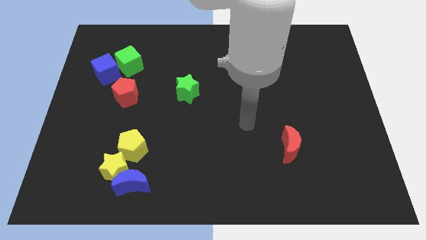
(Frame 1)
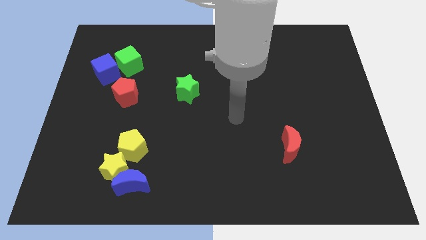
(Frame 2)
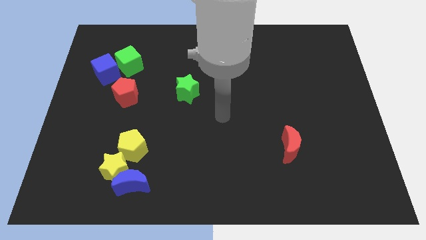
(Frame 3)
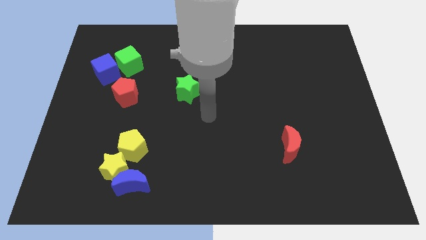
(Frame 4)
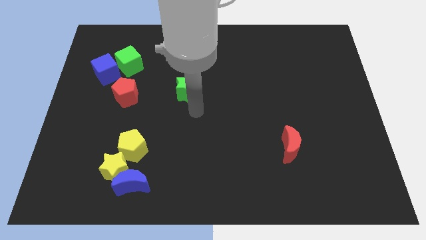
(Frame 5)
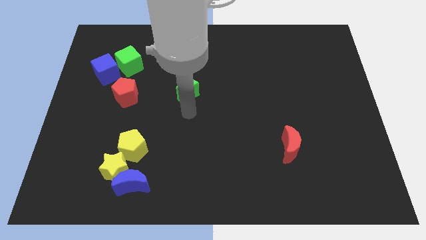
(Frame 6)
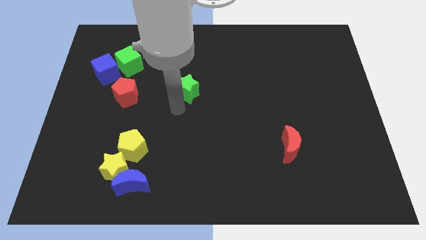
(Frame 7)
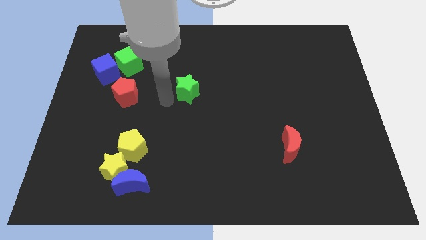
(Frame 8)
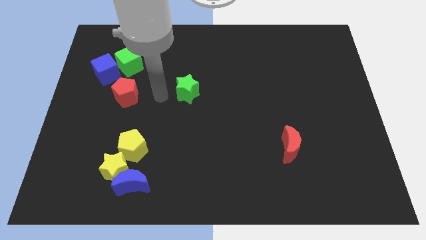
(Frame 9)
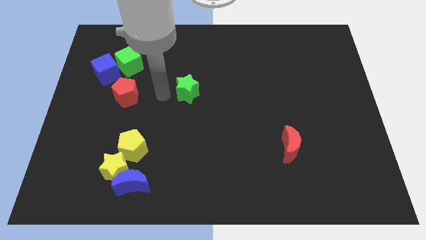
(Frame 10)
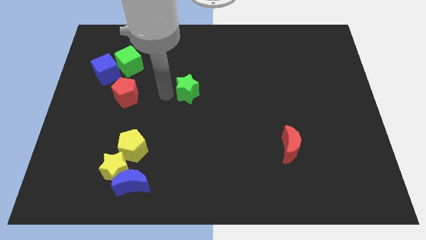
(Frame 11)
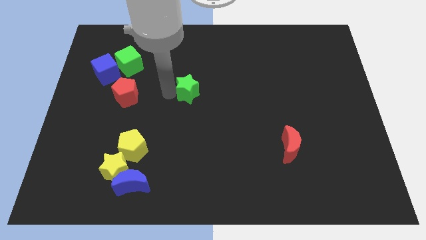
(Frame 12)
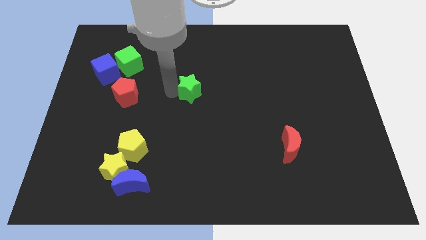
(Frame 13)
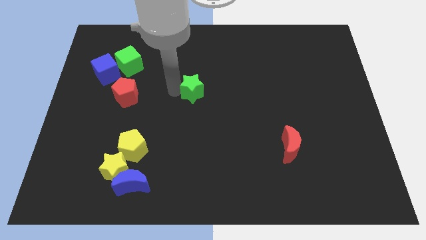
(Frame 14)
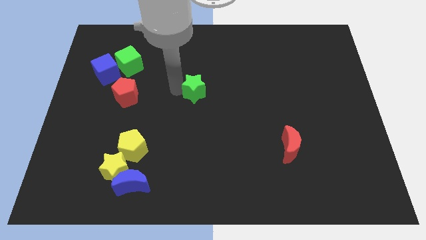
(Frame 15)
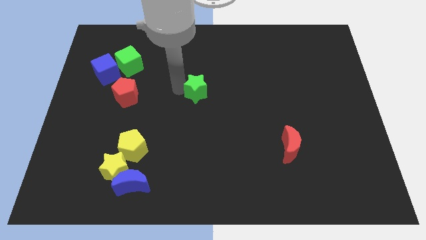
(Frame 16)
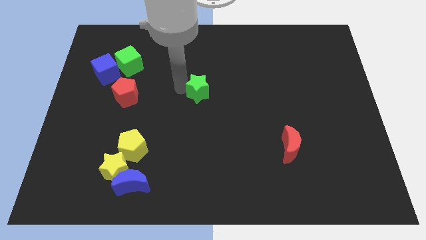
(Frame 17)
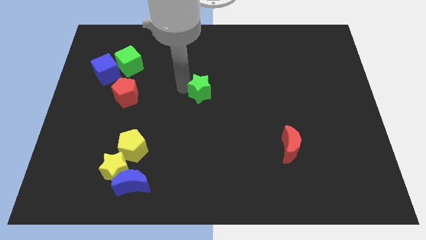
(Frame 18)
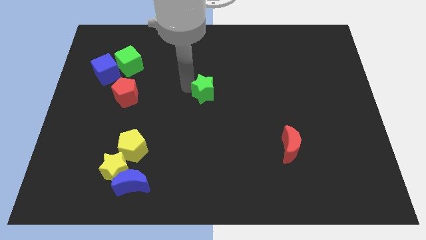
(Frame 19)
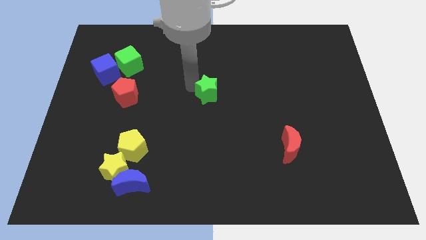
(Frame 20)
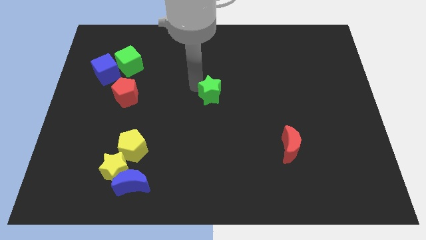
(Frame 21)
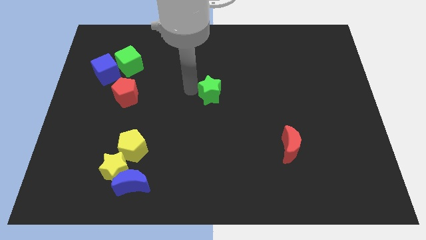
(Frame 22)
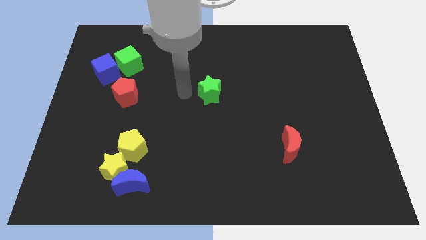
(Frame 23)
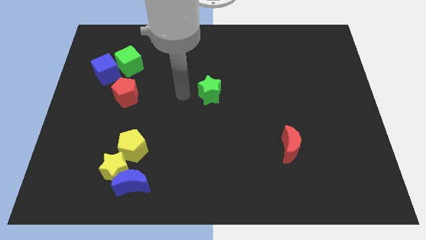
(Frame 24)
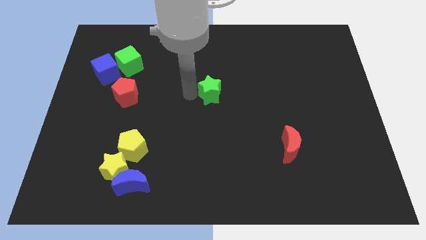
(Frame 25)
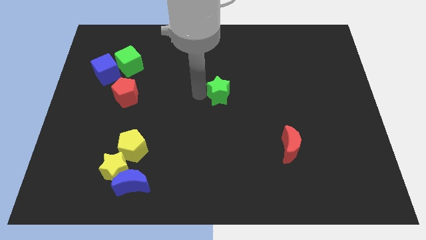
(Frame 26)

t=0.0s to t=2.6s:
slightly push the green star right

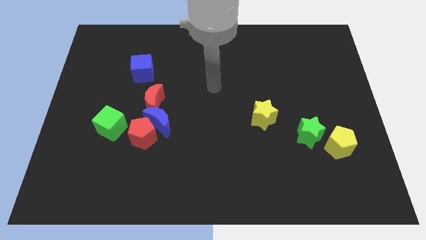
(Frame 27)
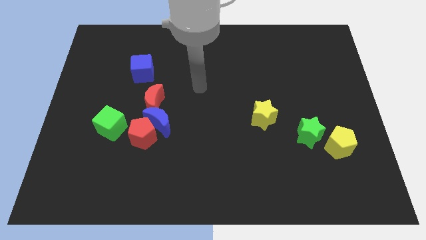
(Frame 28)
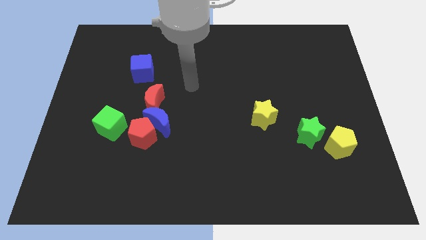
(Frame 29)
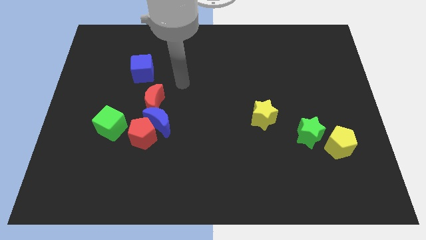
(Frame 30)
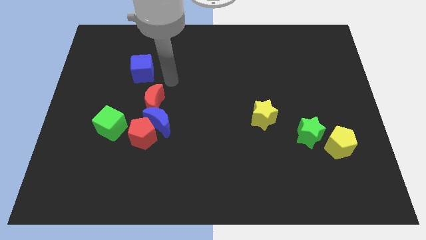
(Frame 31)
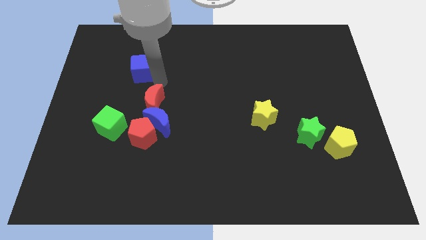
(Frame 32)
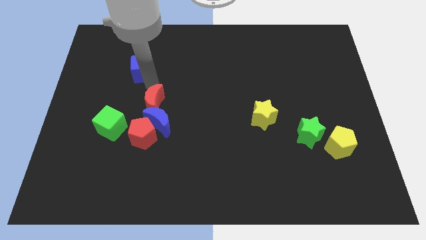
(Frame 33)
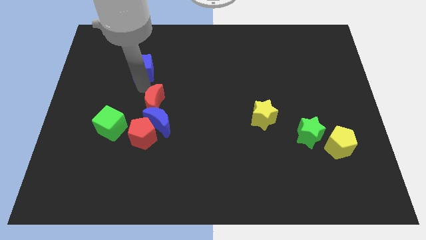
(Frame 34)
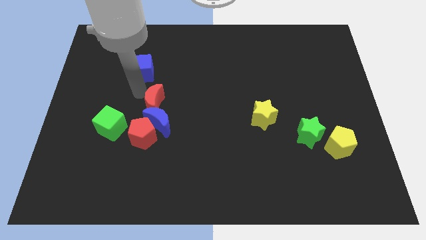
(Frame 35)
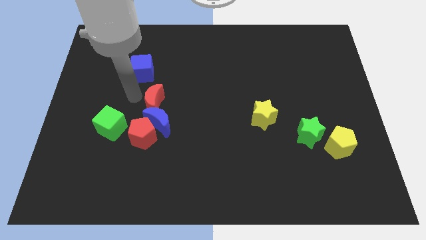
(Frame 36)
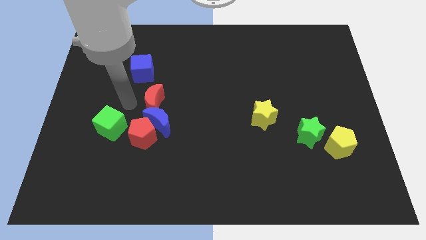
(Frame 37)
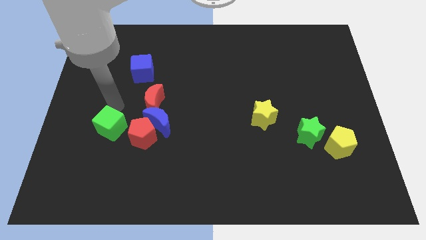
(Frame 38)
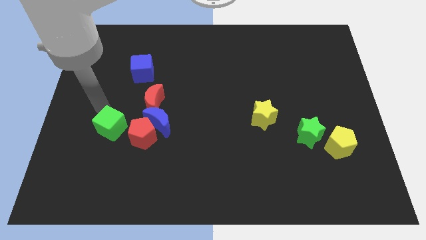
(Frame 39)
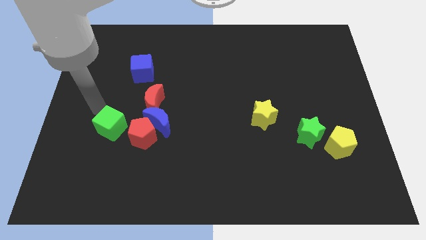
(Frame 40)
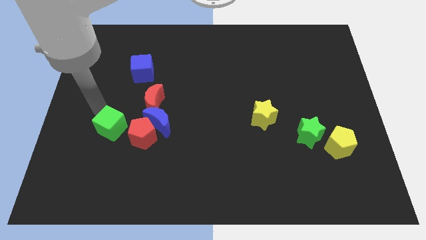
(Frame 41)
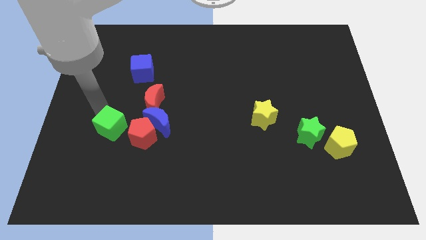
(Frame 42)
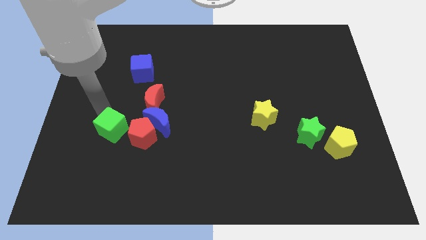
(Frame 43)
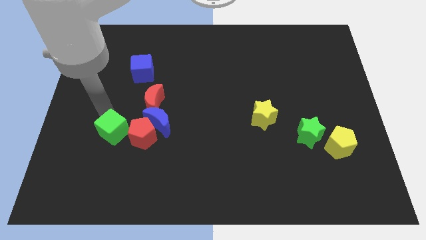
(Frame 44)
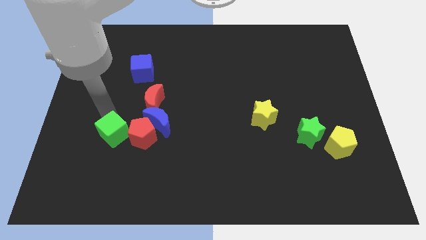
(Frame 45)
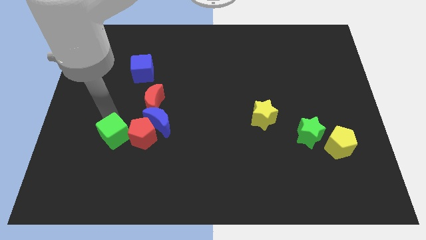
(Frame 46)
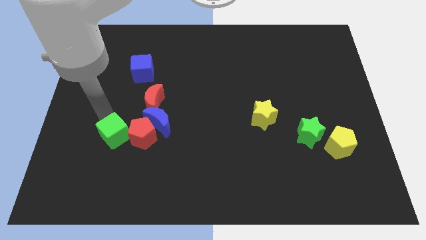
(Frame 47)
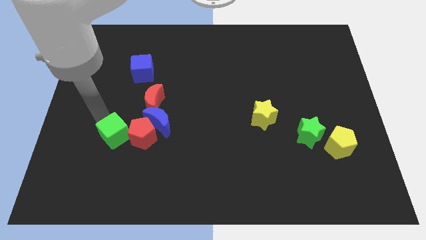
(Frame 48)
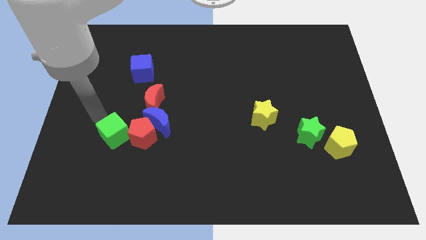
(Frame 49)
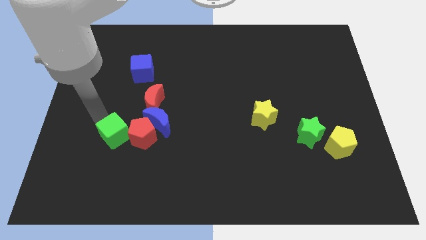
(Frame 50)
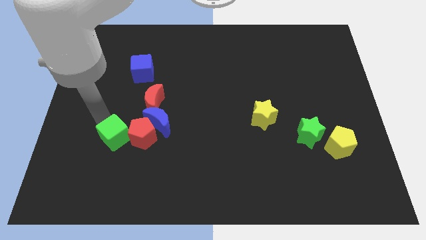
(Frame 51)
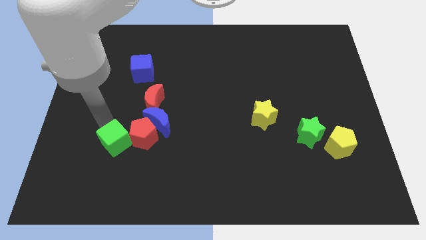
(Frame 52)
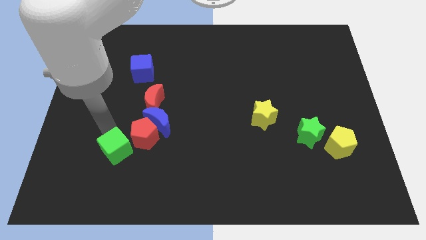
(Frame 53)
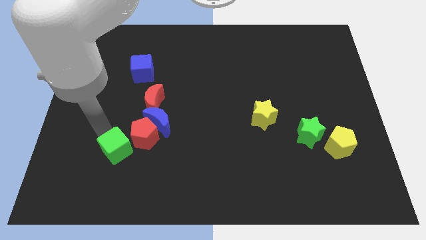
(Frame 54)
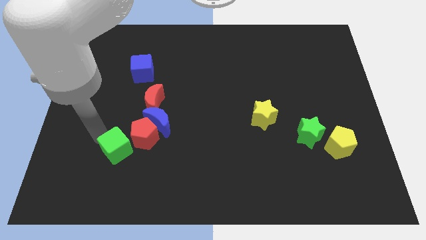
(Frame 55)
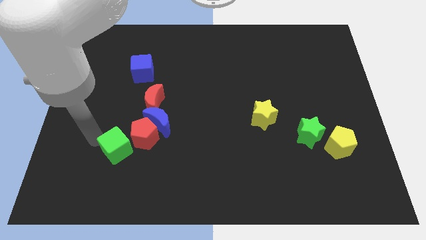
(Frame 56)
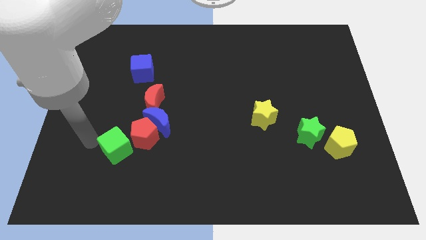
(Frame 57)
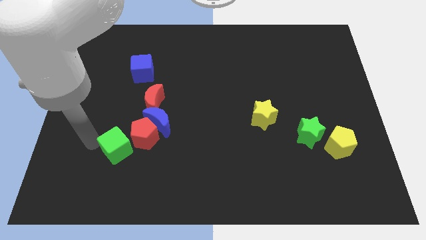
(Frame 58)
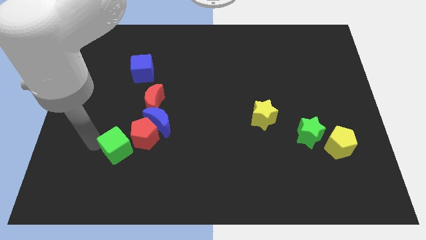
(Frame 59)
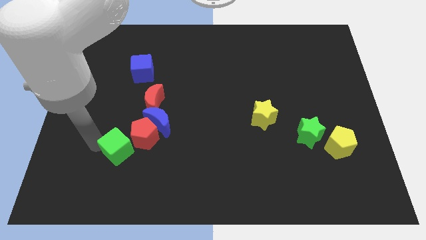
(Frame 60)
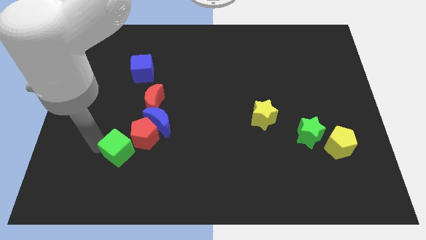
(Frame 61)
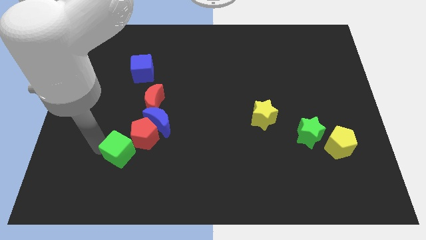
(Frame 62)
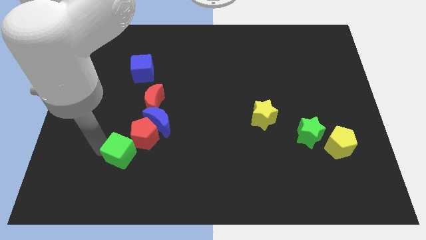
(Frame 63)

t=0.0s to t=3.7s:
slide the green cube a little bit diagonally down and to the right

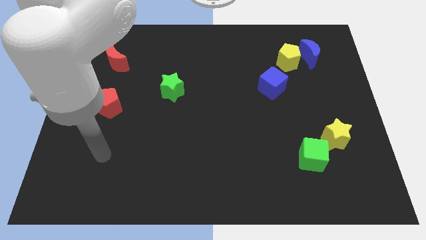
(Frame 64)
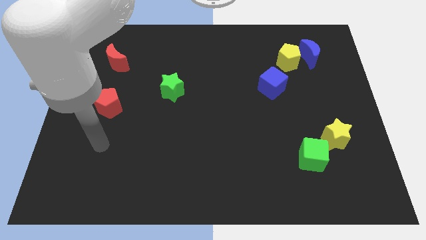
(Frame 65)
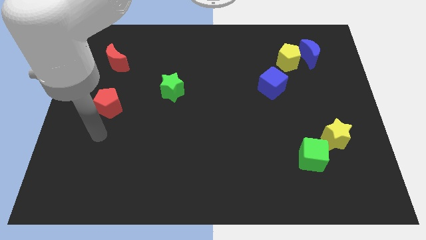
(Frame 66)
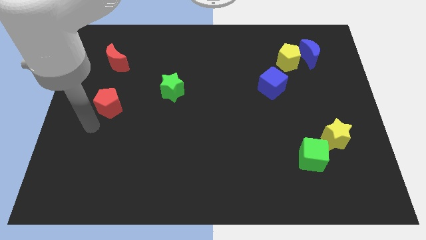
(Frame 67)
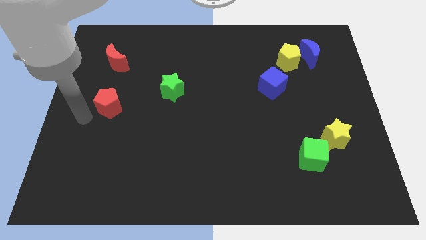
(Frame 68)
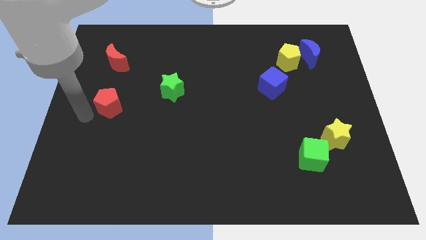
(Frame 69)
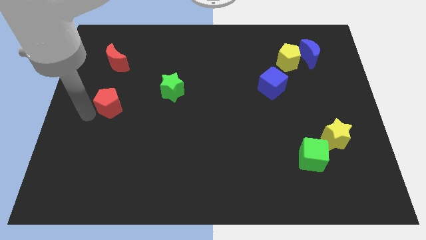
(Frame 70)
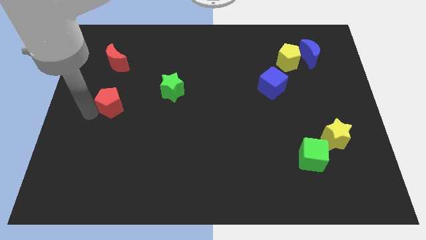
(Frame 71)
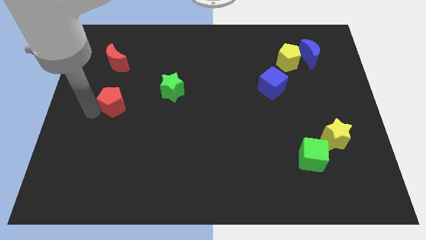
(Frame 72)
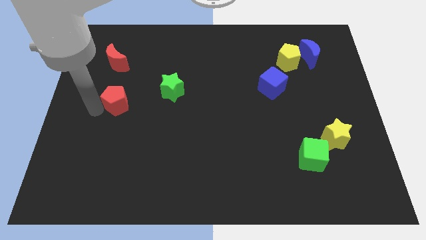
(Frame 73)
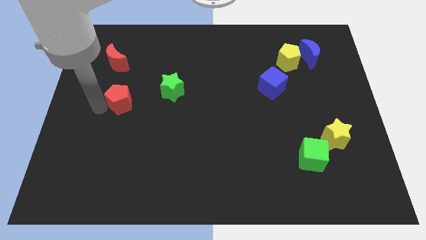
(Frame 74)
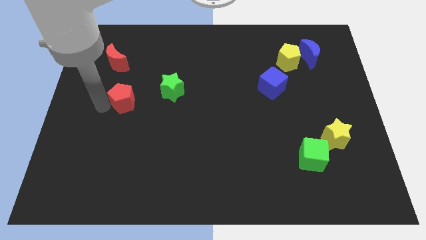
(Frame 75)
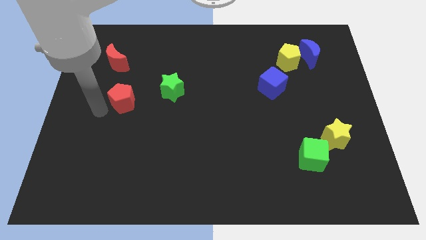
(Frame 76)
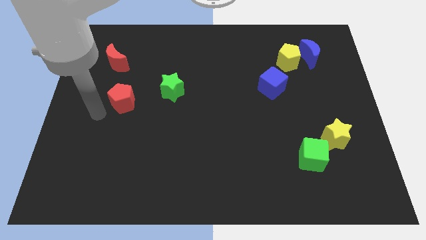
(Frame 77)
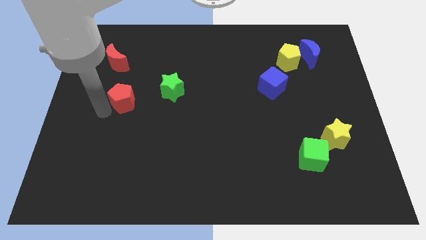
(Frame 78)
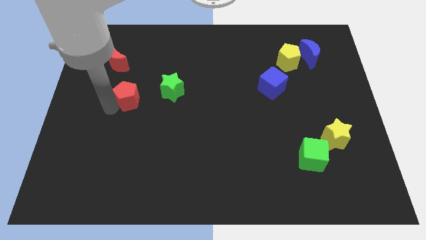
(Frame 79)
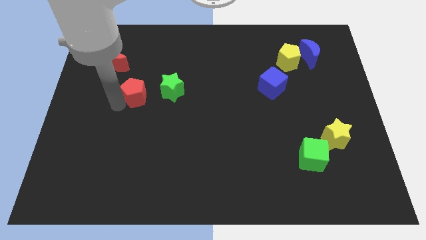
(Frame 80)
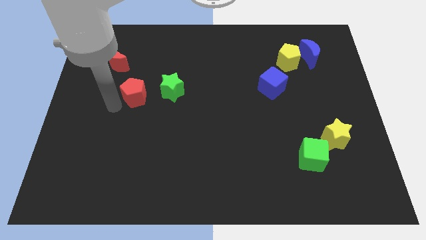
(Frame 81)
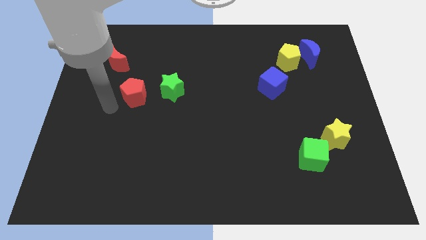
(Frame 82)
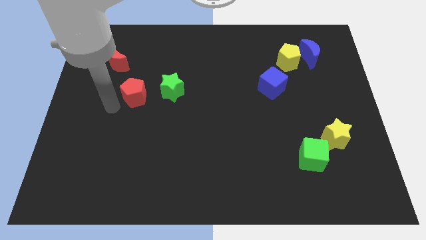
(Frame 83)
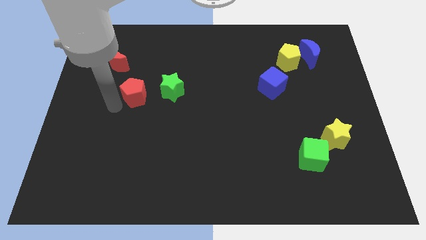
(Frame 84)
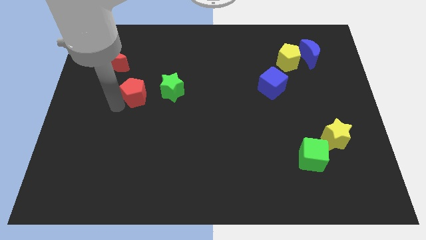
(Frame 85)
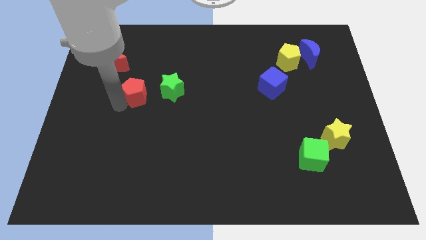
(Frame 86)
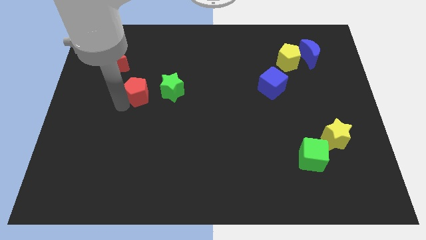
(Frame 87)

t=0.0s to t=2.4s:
slightly move the red pentagon upwards and then right
